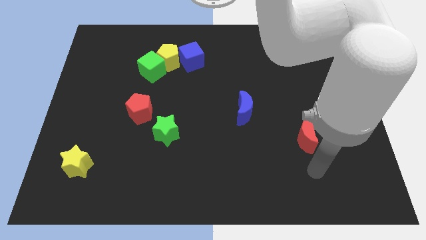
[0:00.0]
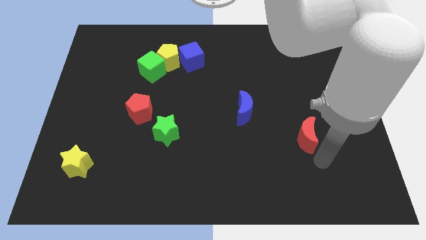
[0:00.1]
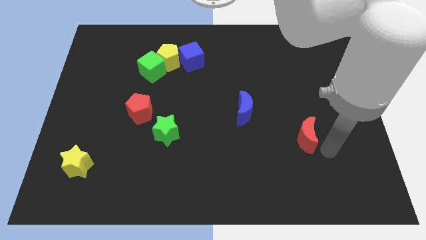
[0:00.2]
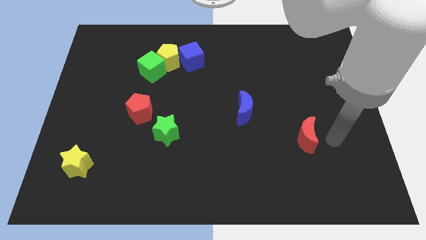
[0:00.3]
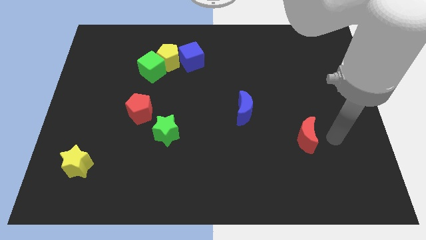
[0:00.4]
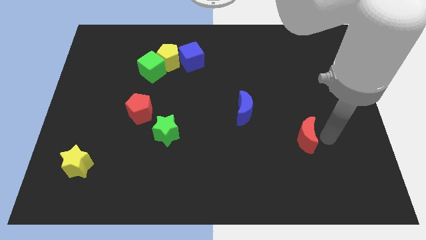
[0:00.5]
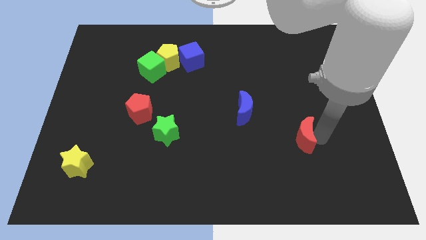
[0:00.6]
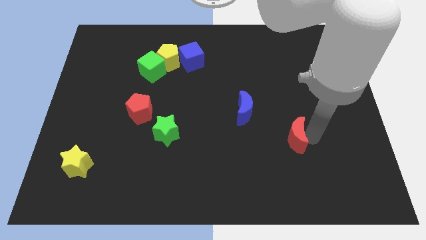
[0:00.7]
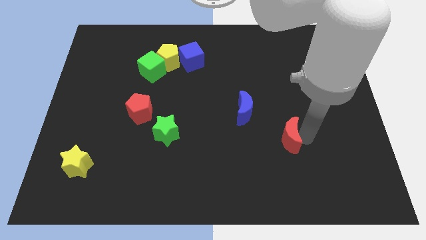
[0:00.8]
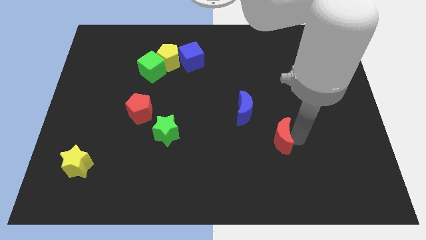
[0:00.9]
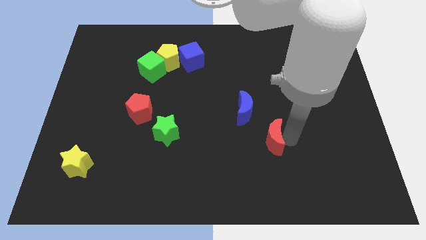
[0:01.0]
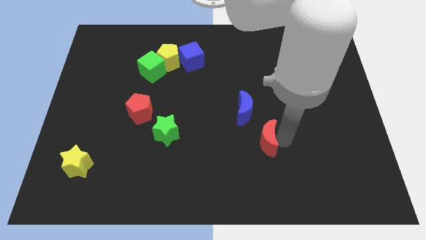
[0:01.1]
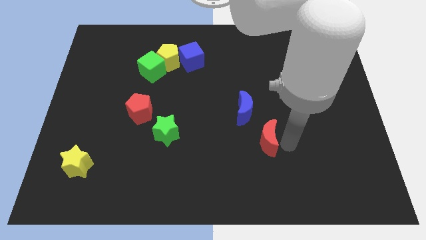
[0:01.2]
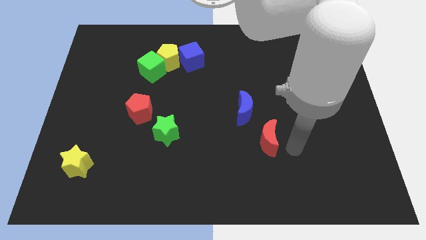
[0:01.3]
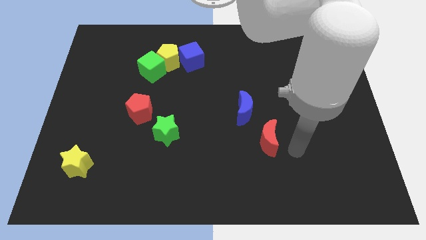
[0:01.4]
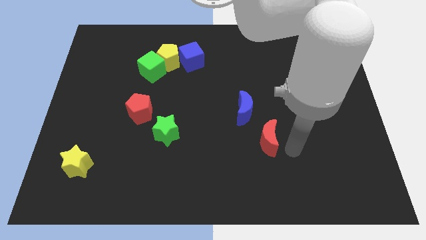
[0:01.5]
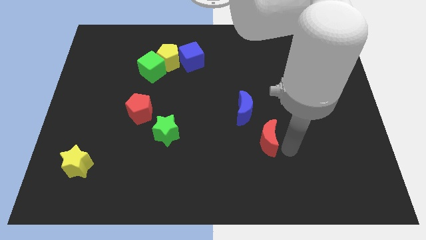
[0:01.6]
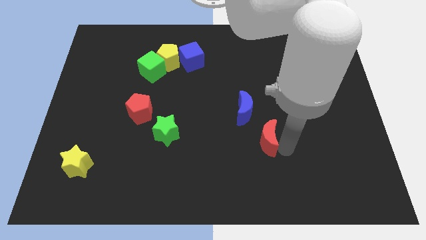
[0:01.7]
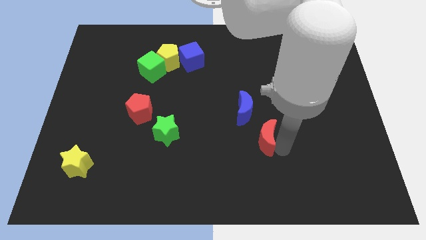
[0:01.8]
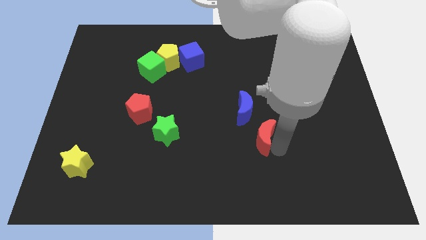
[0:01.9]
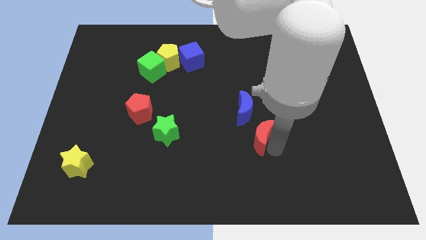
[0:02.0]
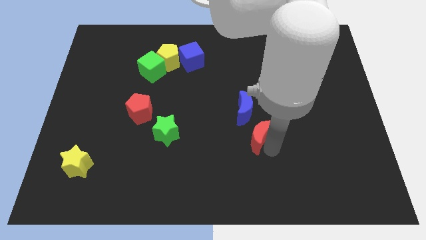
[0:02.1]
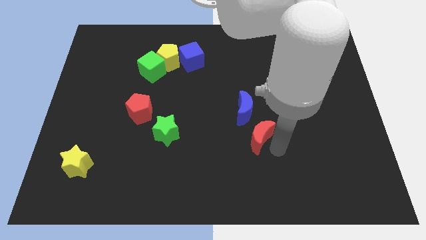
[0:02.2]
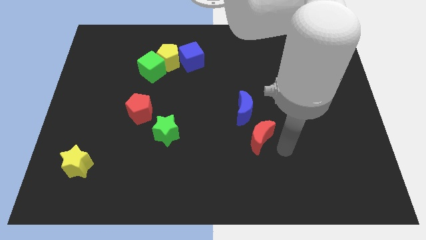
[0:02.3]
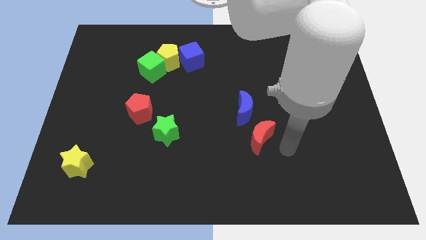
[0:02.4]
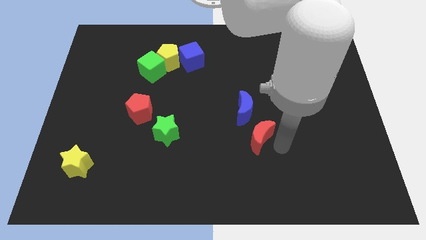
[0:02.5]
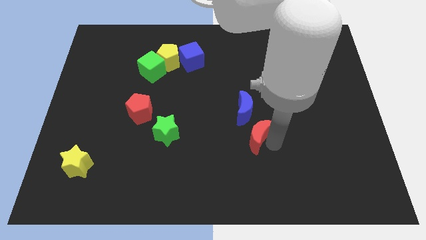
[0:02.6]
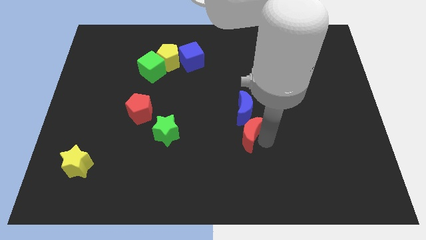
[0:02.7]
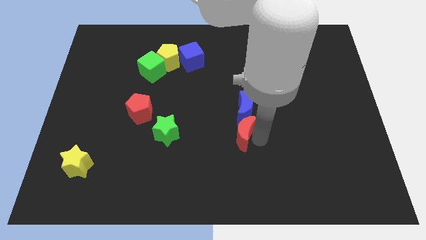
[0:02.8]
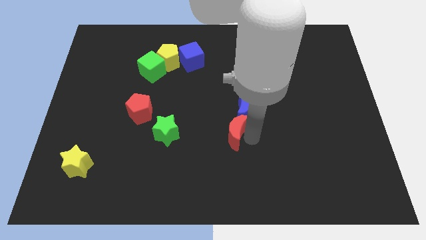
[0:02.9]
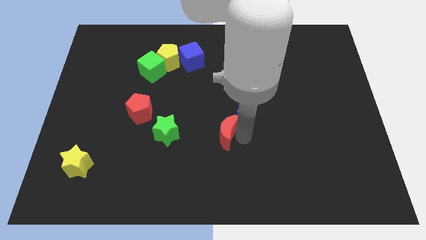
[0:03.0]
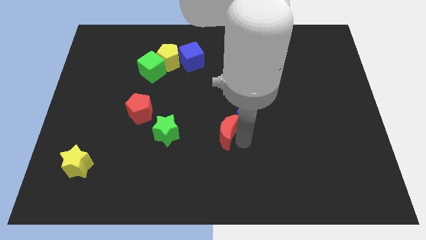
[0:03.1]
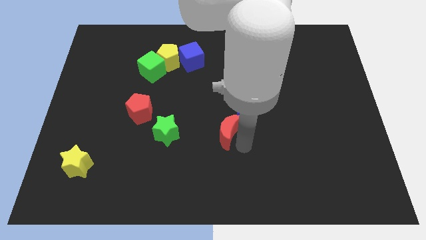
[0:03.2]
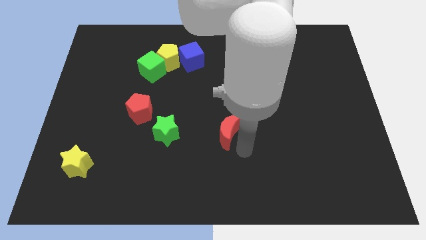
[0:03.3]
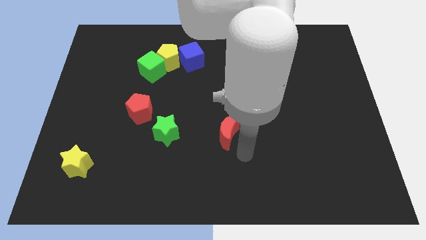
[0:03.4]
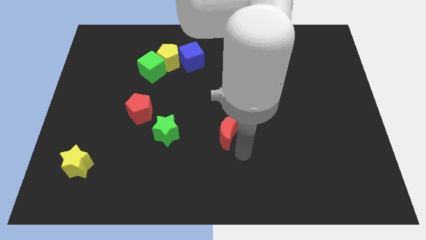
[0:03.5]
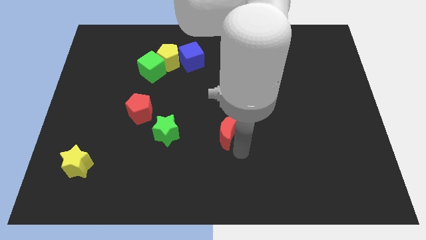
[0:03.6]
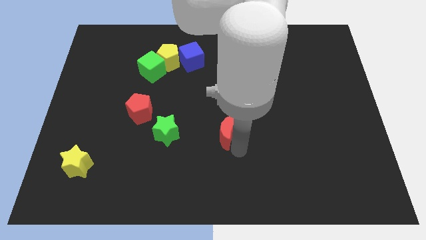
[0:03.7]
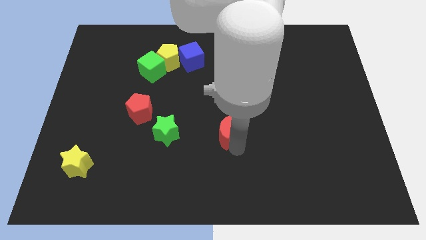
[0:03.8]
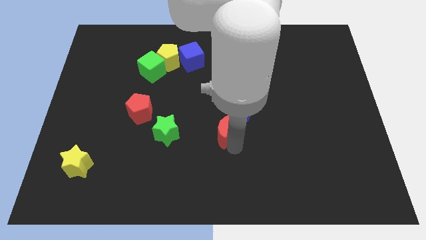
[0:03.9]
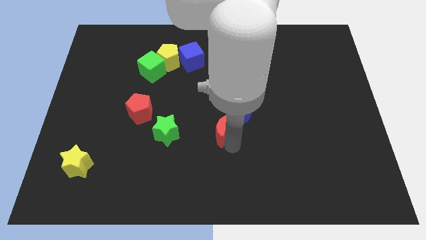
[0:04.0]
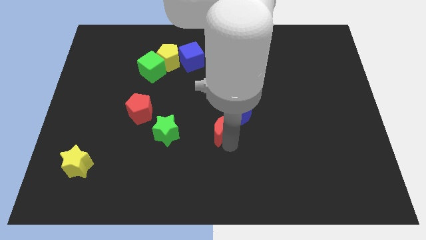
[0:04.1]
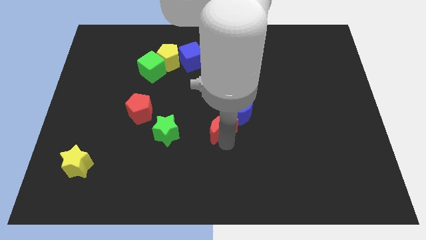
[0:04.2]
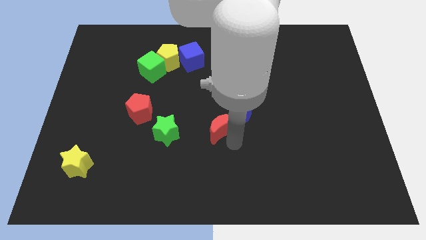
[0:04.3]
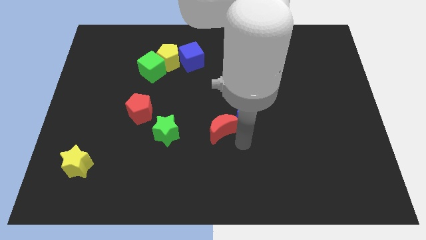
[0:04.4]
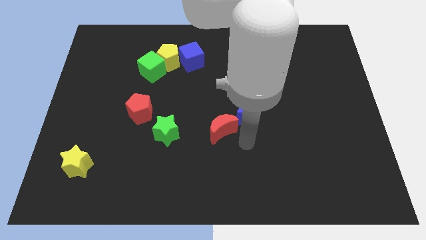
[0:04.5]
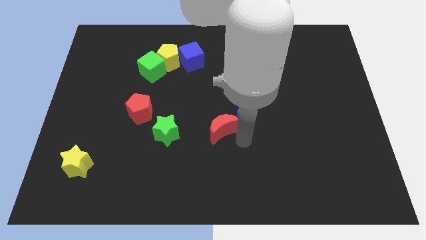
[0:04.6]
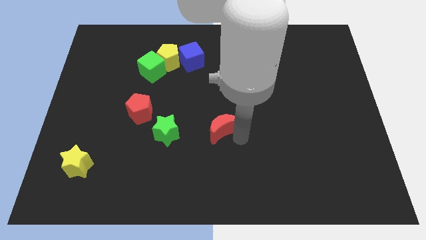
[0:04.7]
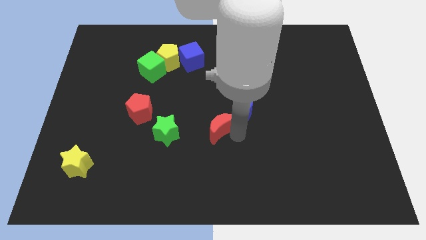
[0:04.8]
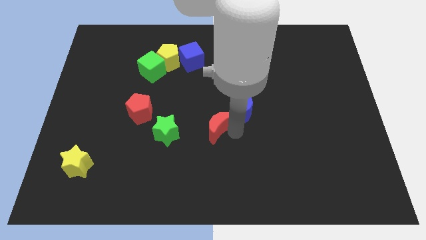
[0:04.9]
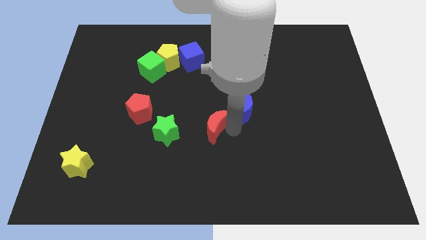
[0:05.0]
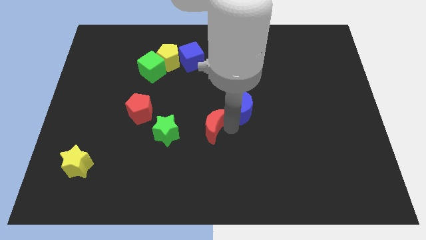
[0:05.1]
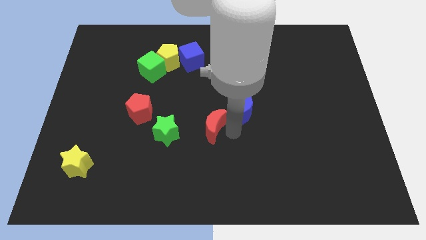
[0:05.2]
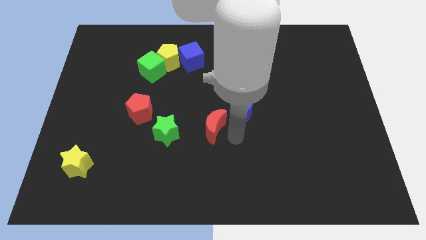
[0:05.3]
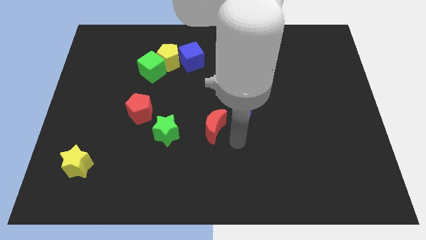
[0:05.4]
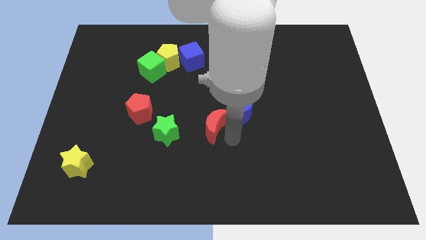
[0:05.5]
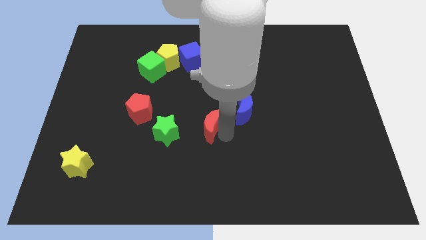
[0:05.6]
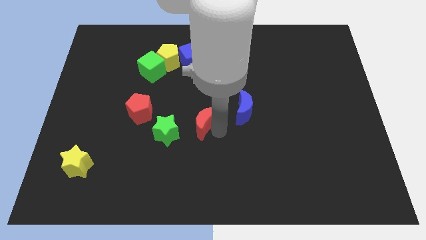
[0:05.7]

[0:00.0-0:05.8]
put the red moon to the top right side of the green star
